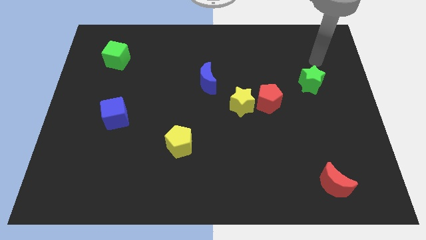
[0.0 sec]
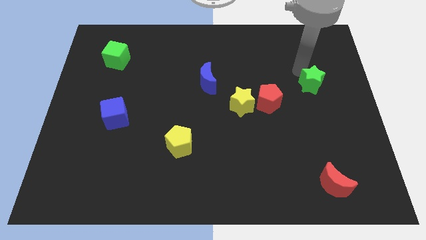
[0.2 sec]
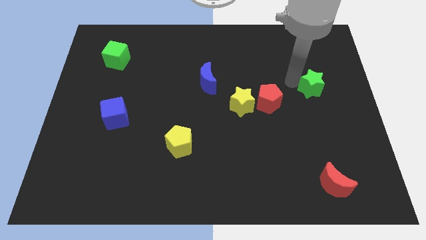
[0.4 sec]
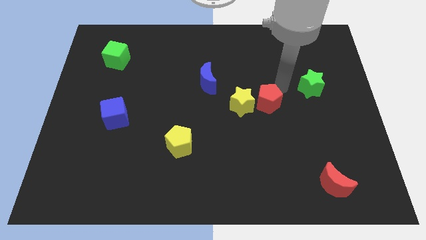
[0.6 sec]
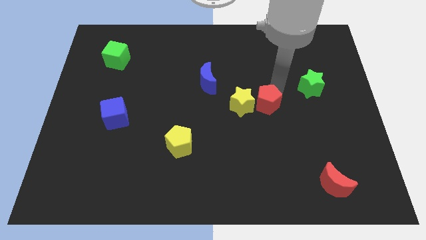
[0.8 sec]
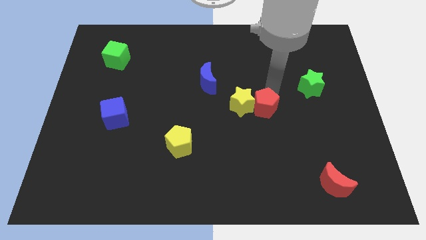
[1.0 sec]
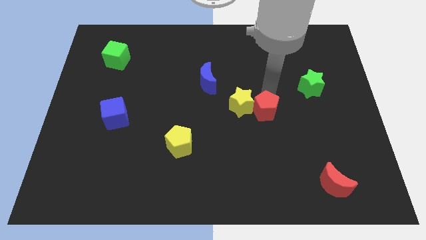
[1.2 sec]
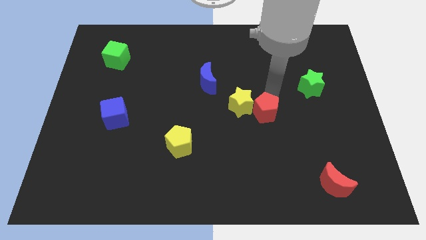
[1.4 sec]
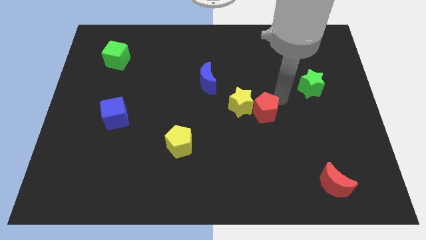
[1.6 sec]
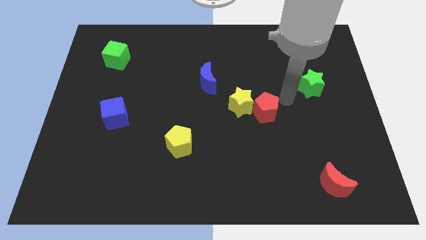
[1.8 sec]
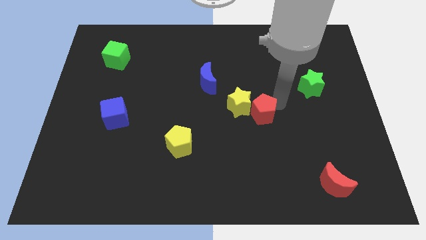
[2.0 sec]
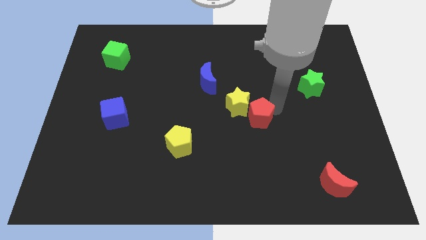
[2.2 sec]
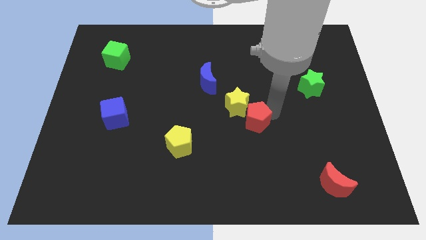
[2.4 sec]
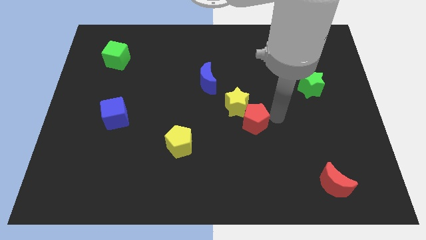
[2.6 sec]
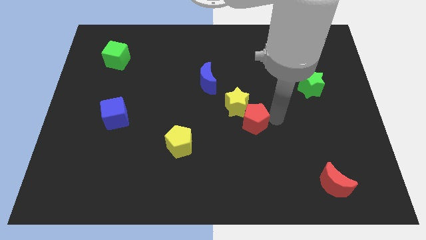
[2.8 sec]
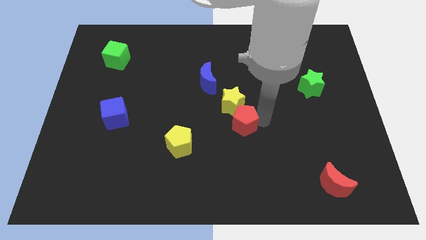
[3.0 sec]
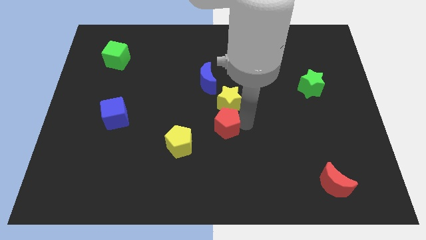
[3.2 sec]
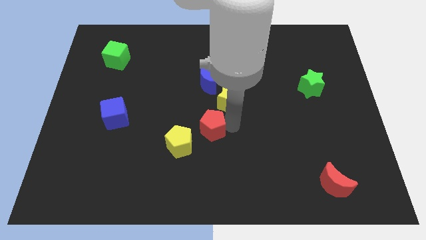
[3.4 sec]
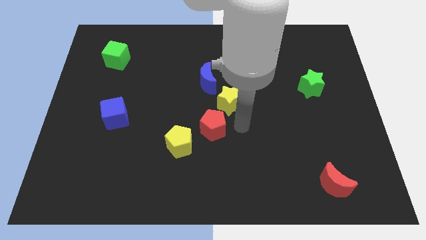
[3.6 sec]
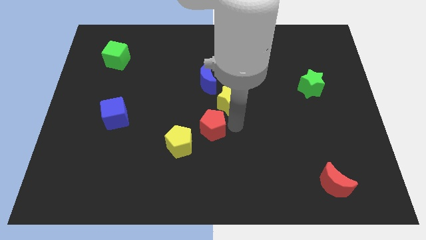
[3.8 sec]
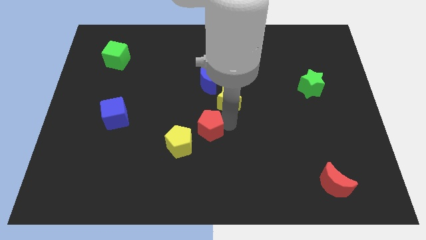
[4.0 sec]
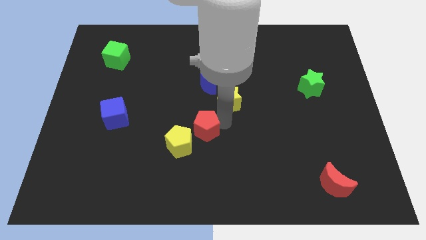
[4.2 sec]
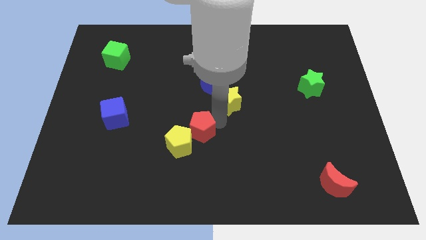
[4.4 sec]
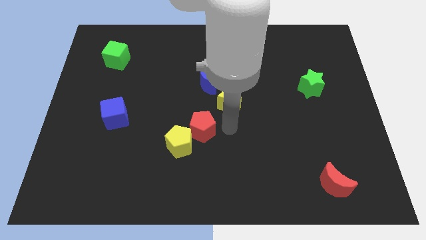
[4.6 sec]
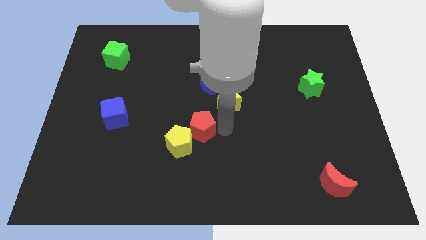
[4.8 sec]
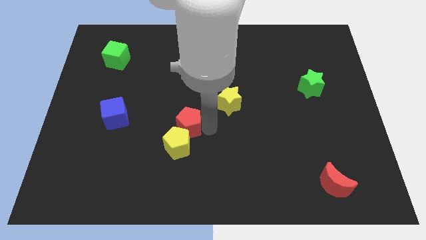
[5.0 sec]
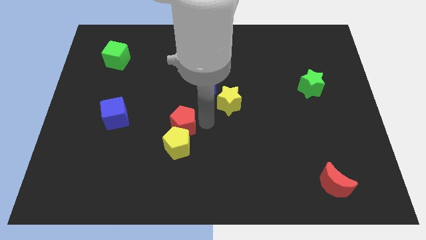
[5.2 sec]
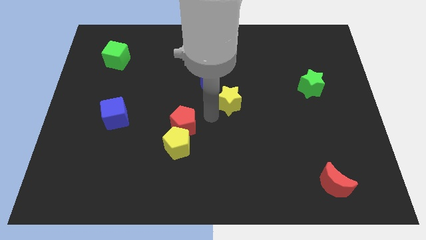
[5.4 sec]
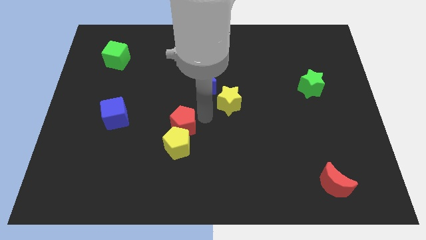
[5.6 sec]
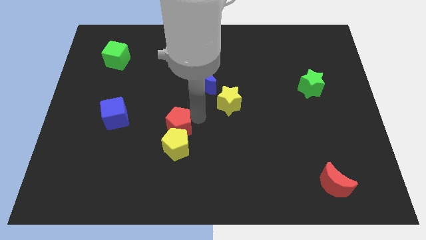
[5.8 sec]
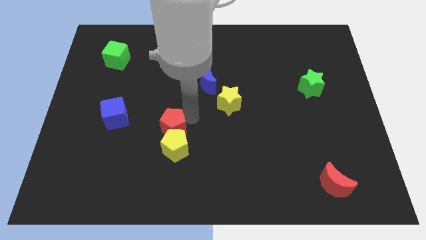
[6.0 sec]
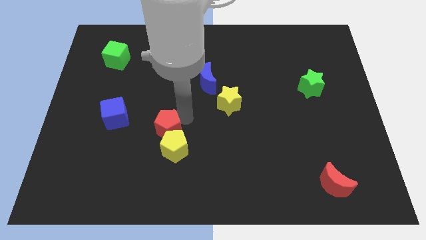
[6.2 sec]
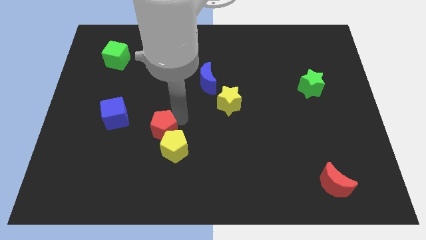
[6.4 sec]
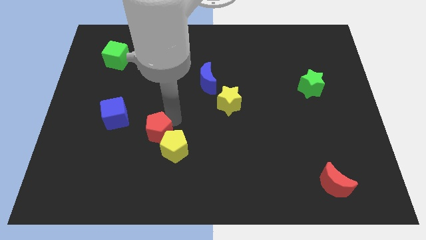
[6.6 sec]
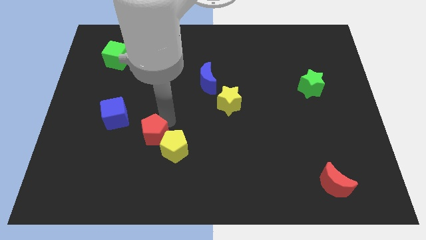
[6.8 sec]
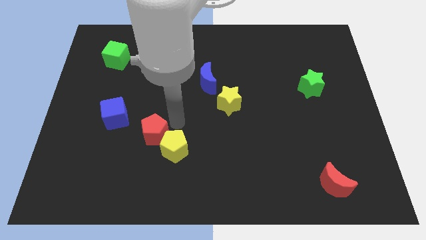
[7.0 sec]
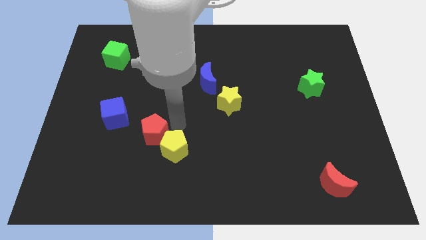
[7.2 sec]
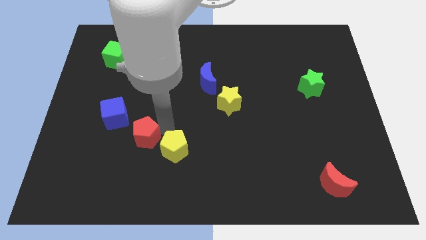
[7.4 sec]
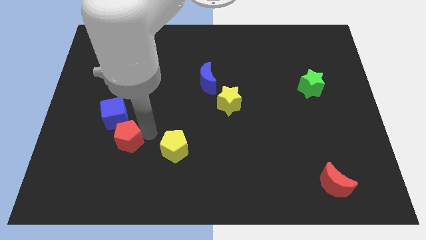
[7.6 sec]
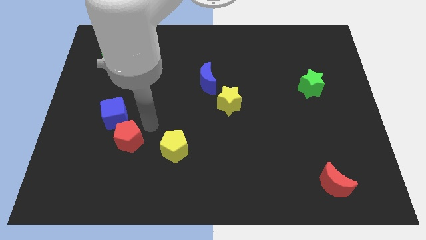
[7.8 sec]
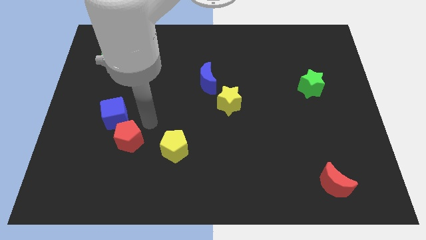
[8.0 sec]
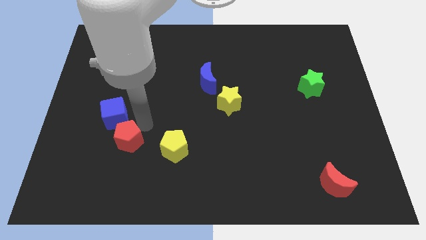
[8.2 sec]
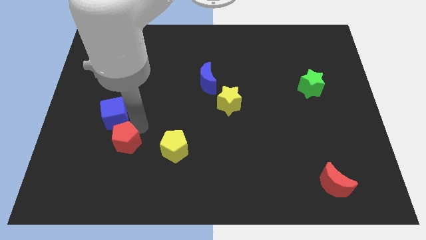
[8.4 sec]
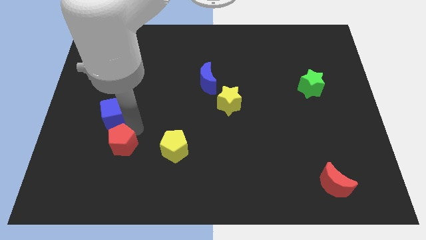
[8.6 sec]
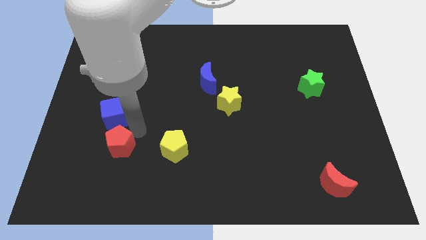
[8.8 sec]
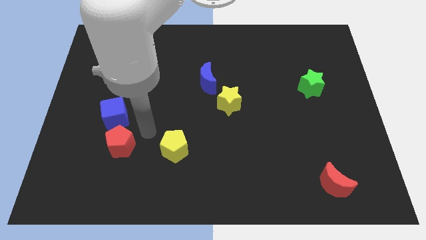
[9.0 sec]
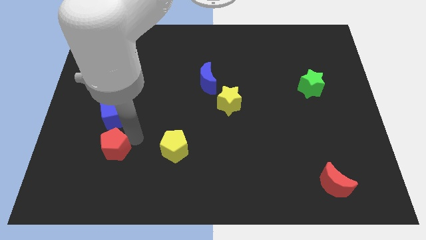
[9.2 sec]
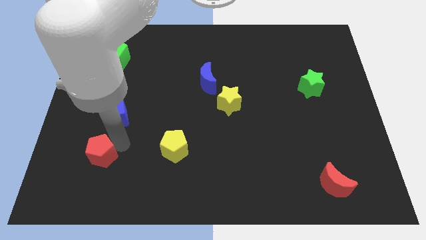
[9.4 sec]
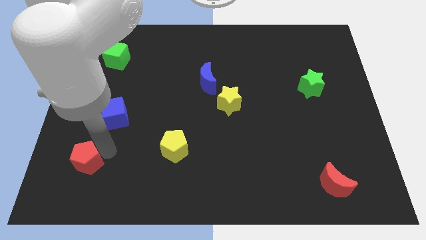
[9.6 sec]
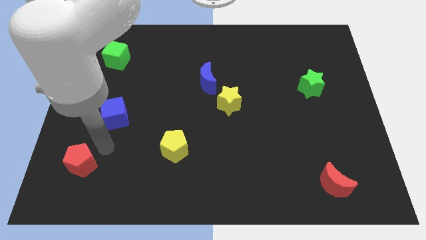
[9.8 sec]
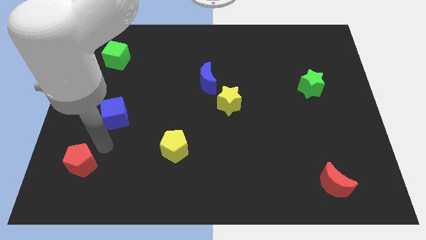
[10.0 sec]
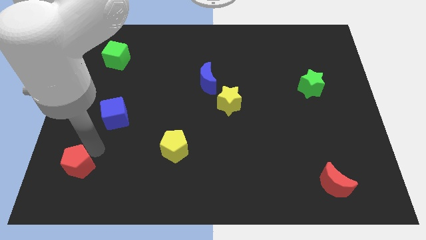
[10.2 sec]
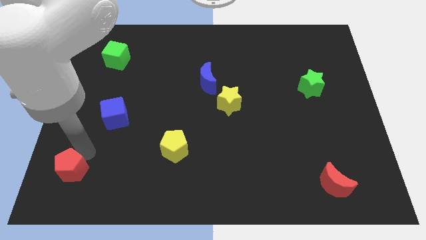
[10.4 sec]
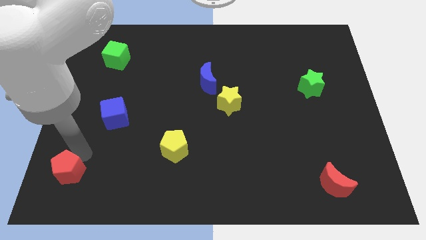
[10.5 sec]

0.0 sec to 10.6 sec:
move the red pentagon to the lower left corner
